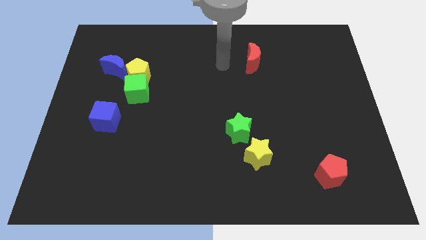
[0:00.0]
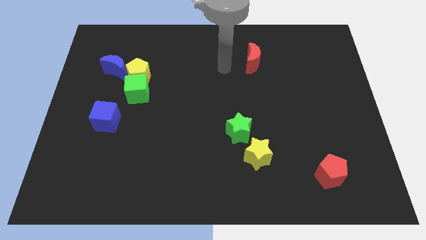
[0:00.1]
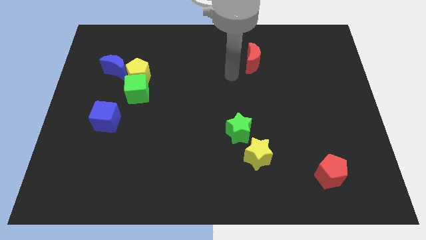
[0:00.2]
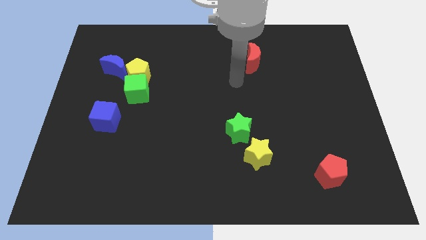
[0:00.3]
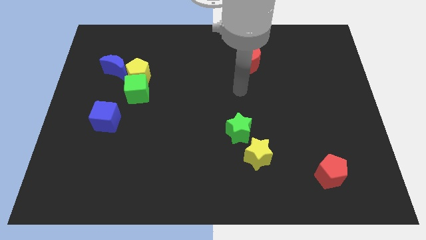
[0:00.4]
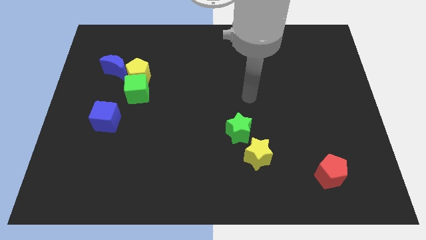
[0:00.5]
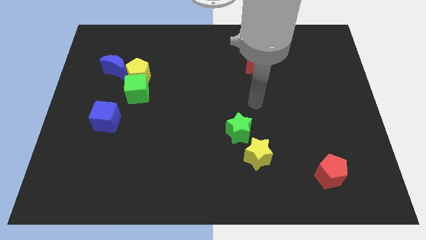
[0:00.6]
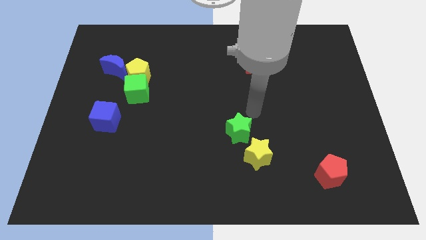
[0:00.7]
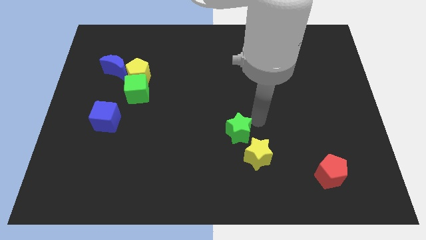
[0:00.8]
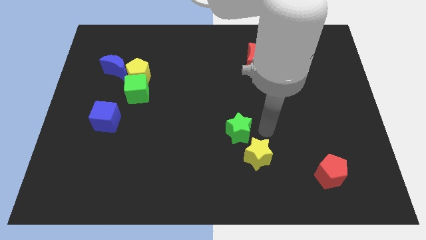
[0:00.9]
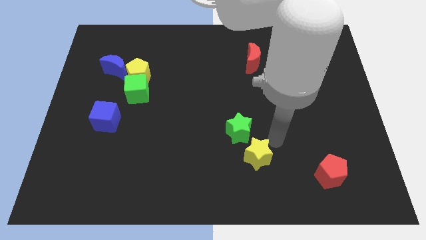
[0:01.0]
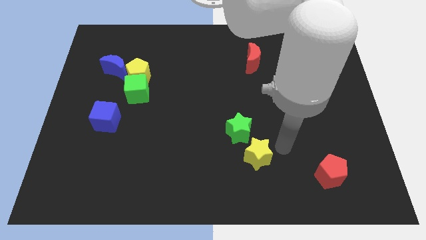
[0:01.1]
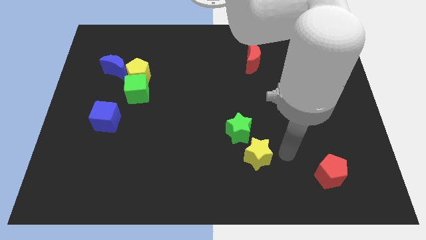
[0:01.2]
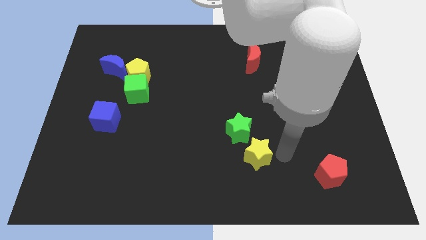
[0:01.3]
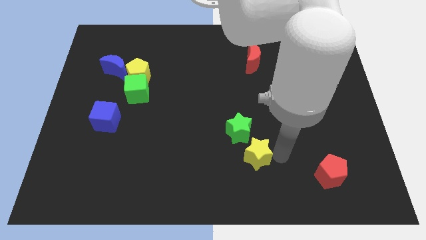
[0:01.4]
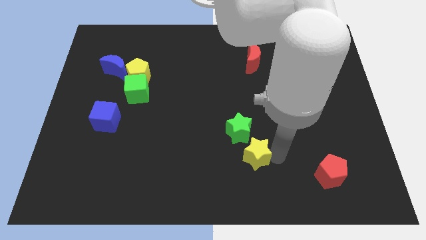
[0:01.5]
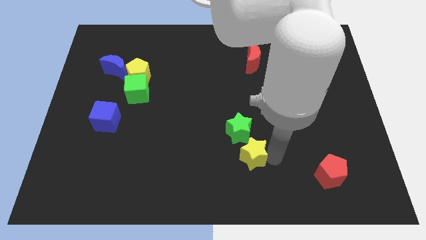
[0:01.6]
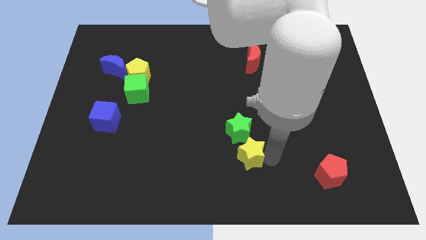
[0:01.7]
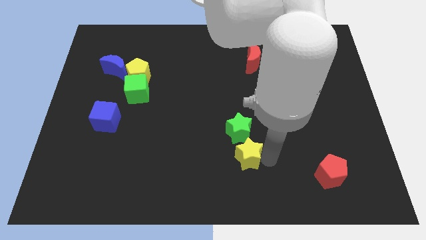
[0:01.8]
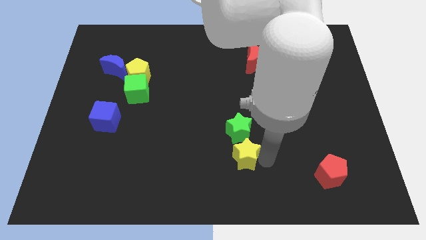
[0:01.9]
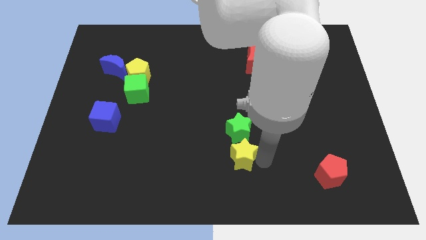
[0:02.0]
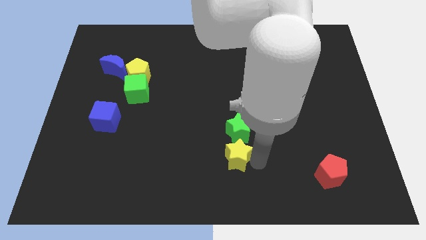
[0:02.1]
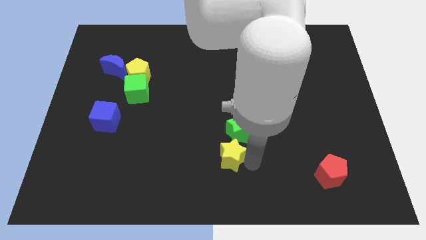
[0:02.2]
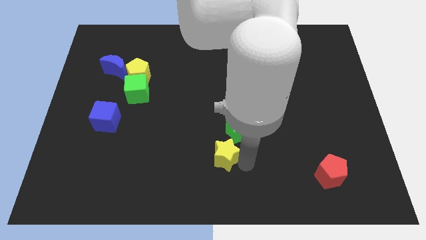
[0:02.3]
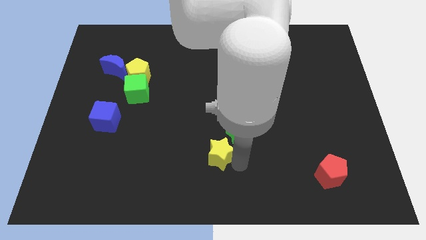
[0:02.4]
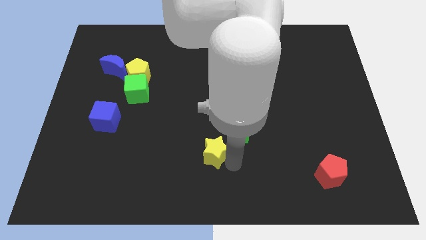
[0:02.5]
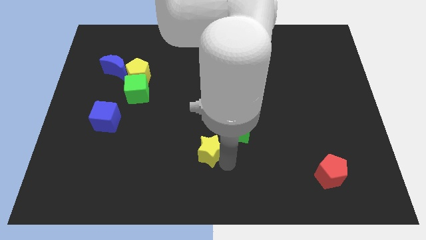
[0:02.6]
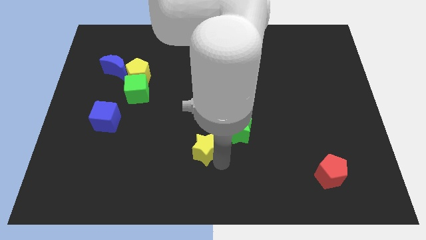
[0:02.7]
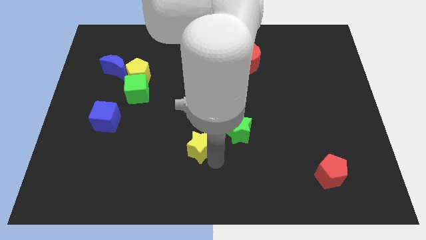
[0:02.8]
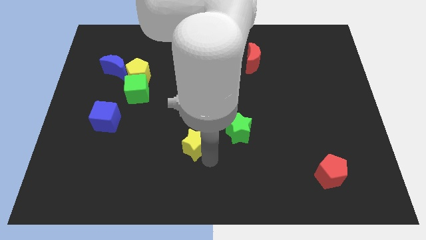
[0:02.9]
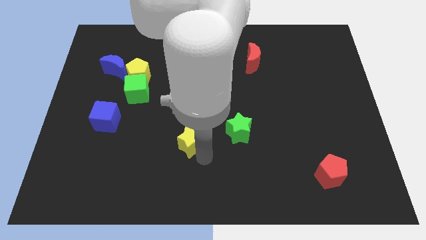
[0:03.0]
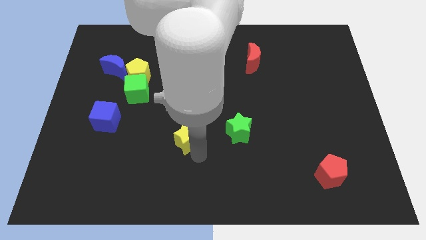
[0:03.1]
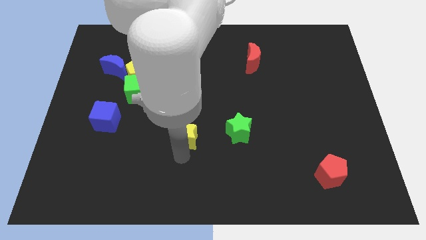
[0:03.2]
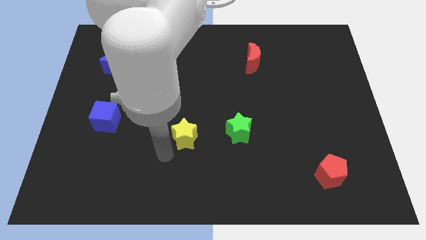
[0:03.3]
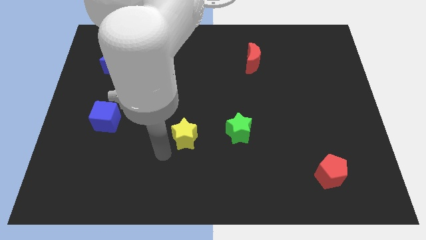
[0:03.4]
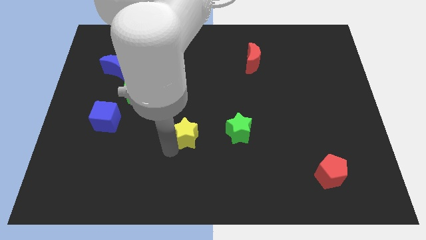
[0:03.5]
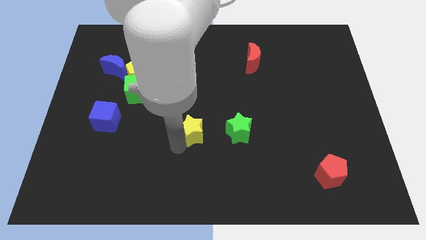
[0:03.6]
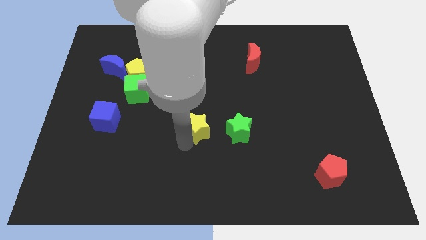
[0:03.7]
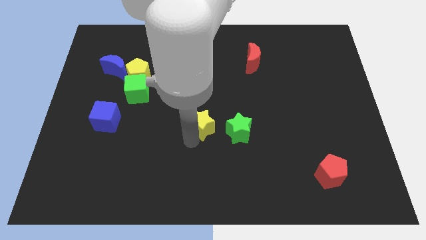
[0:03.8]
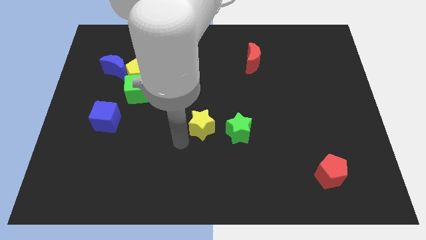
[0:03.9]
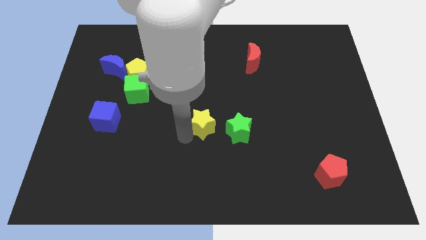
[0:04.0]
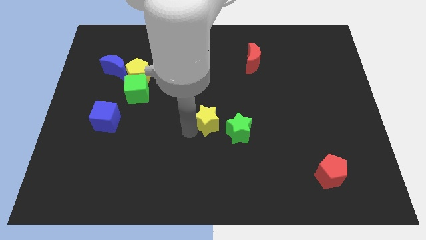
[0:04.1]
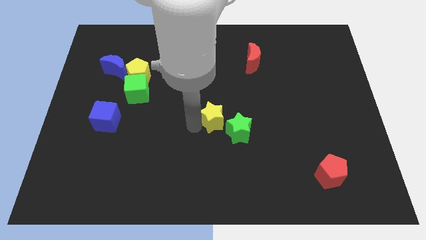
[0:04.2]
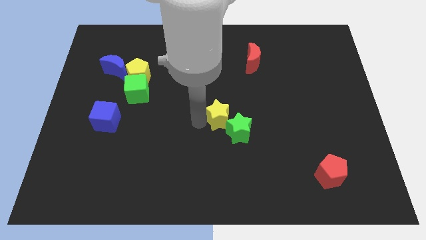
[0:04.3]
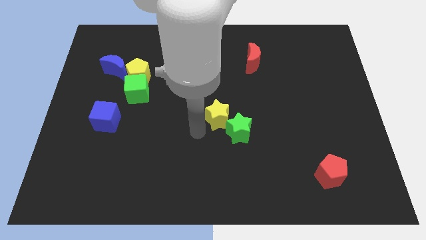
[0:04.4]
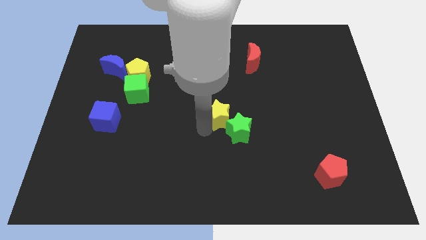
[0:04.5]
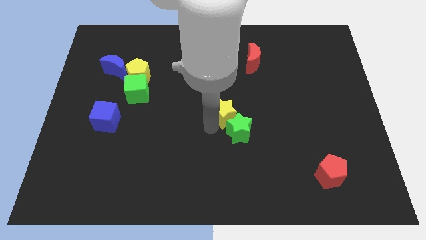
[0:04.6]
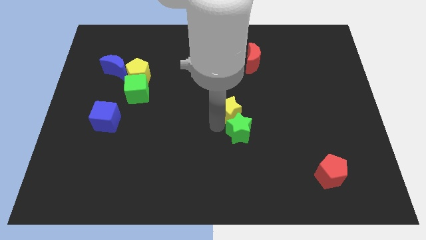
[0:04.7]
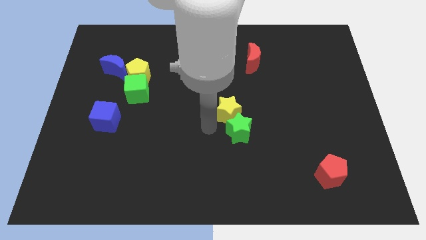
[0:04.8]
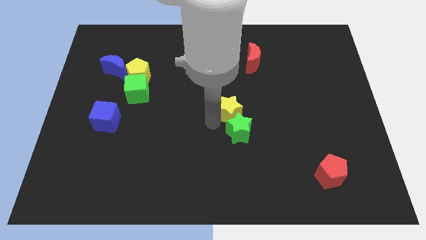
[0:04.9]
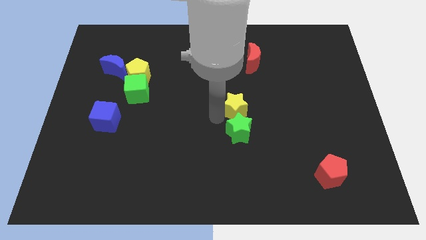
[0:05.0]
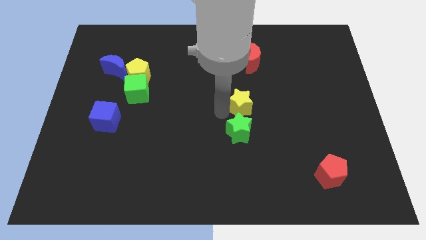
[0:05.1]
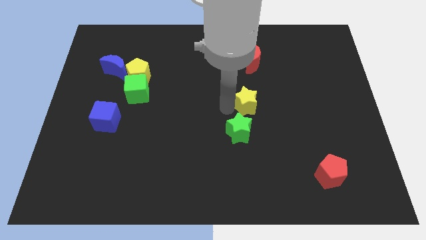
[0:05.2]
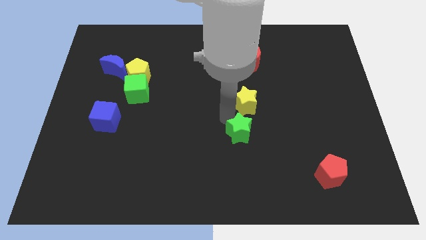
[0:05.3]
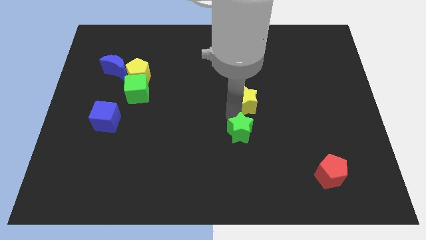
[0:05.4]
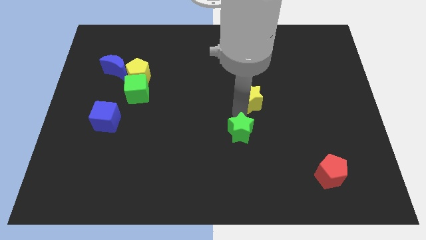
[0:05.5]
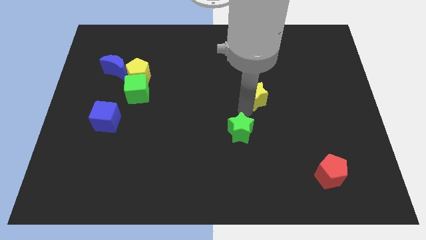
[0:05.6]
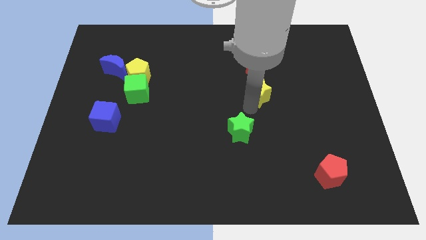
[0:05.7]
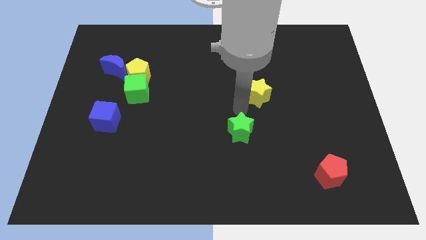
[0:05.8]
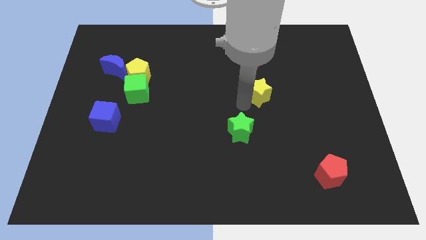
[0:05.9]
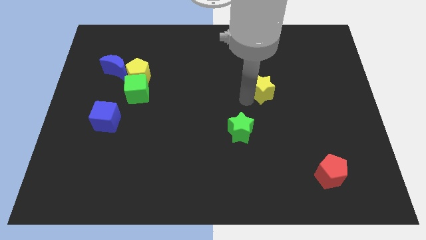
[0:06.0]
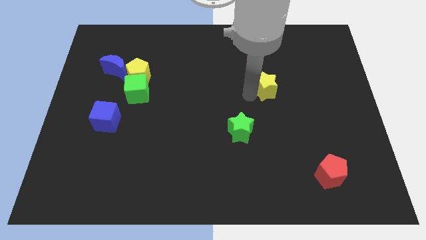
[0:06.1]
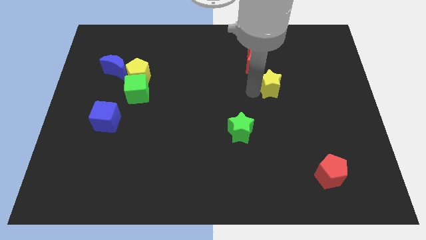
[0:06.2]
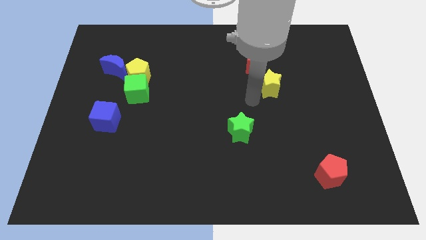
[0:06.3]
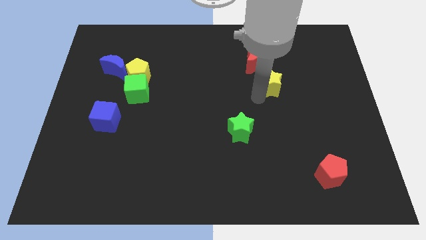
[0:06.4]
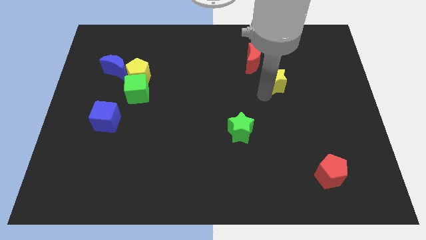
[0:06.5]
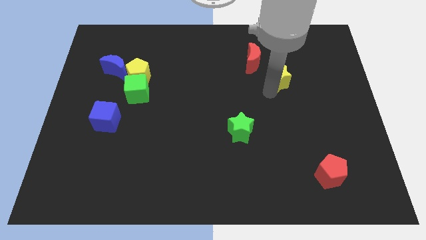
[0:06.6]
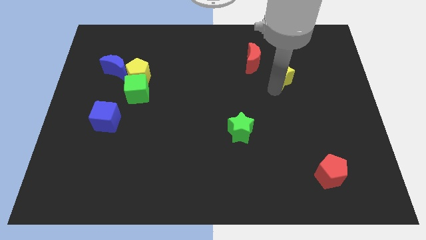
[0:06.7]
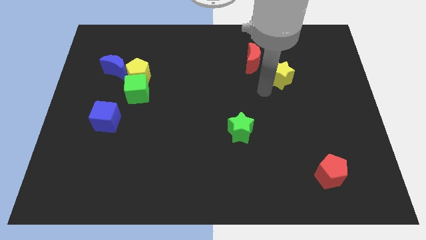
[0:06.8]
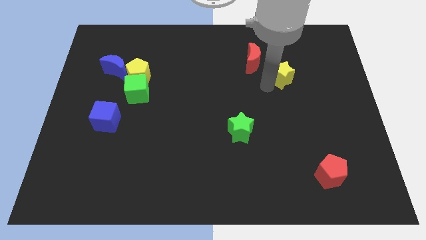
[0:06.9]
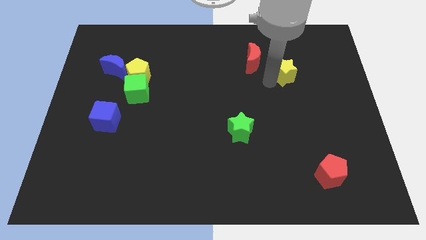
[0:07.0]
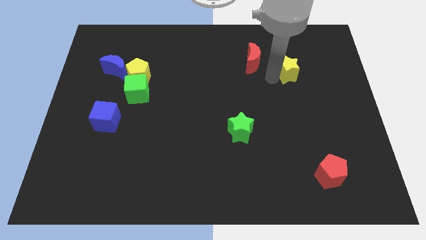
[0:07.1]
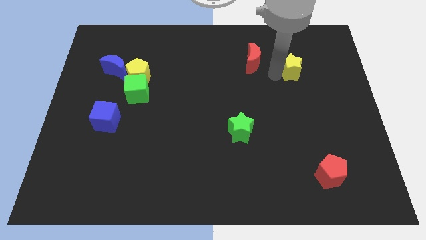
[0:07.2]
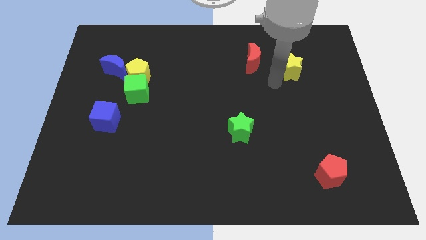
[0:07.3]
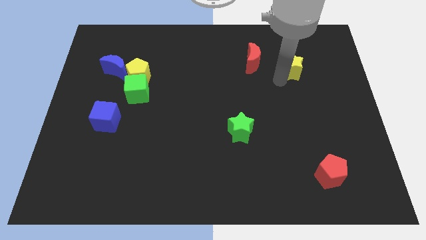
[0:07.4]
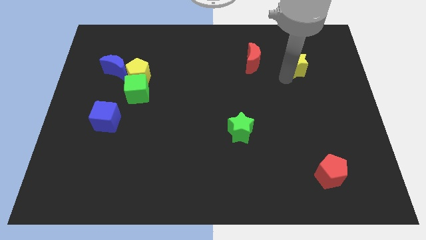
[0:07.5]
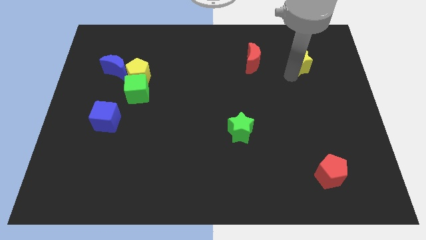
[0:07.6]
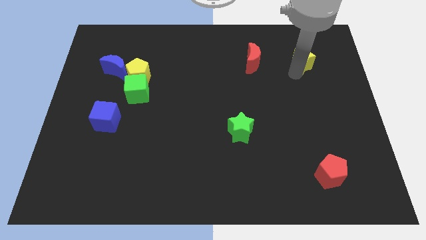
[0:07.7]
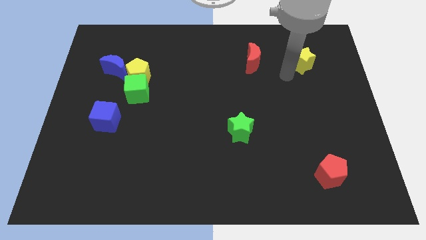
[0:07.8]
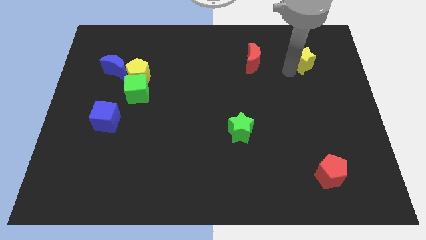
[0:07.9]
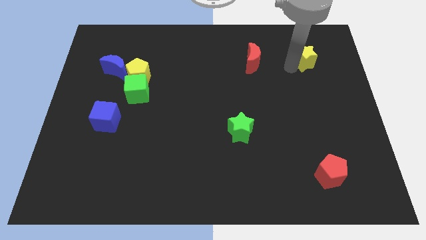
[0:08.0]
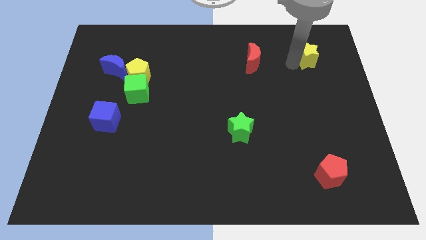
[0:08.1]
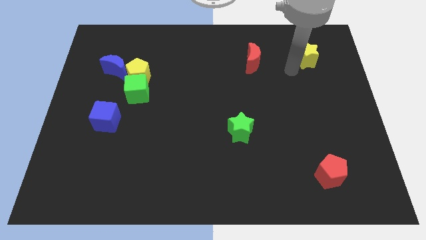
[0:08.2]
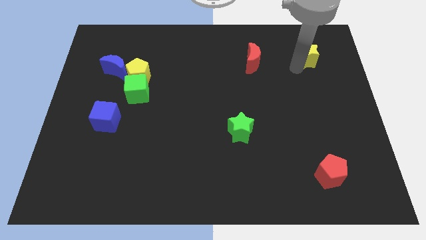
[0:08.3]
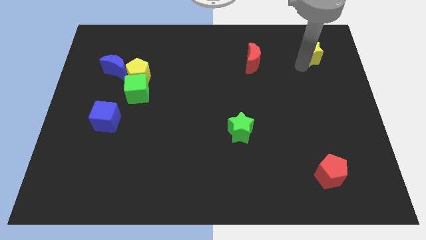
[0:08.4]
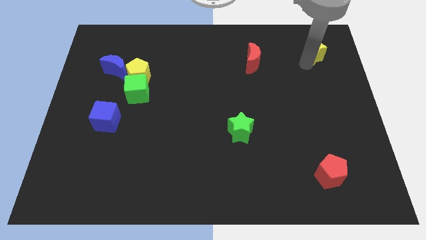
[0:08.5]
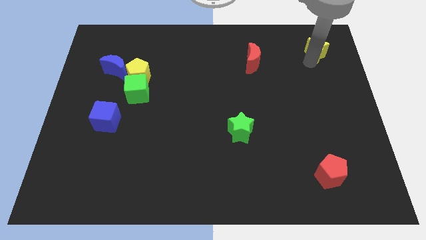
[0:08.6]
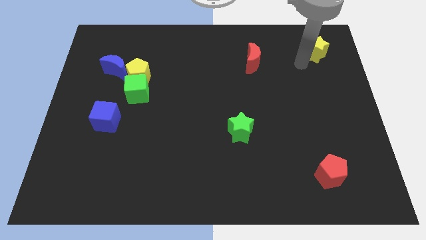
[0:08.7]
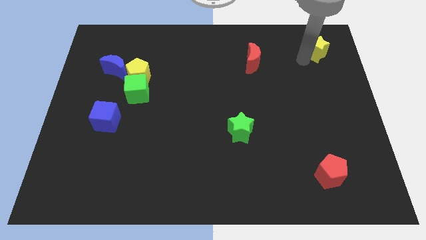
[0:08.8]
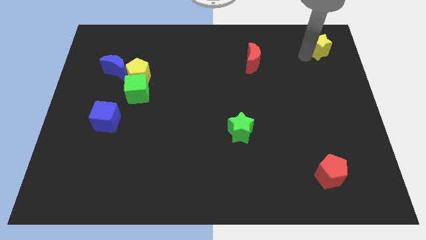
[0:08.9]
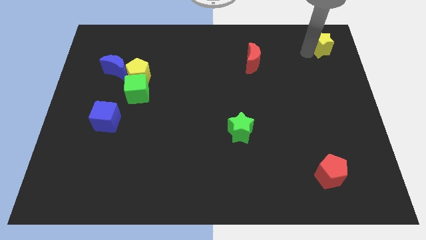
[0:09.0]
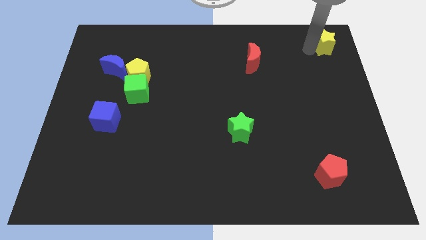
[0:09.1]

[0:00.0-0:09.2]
put the yellow star to the top right
